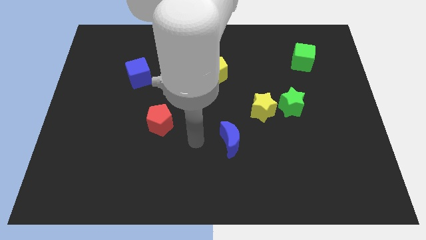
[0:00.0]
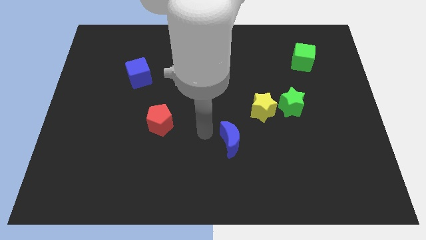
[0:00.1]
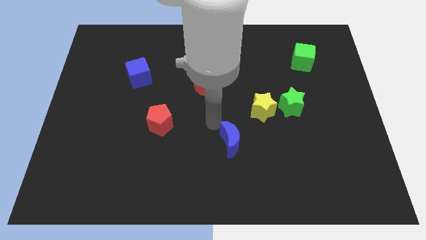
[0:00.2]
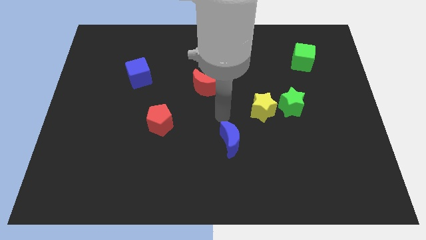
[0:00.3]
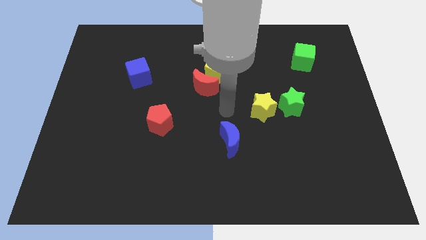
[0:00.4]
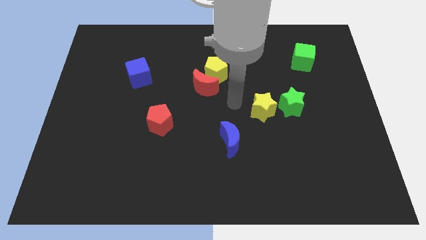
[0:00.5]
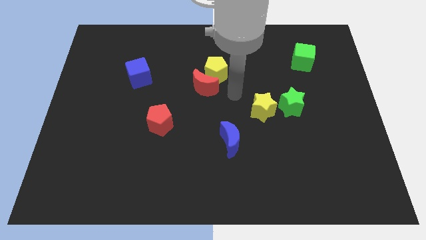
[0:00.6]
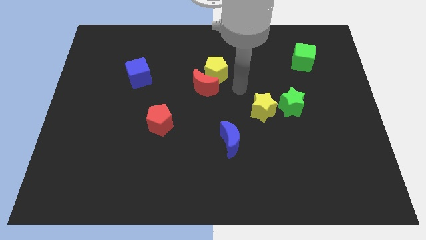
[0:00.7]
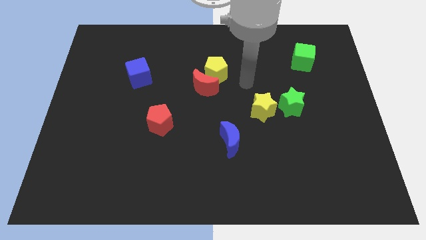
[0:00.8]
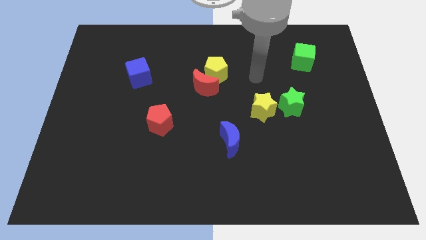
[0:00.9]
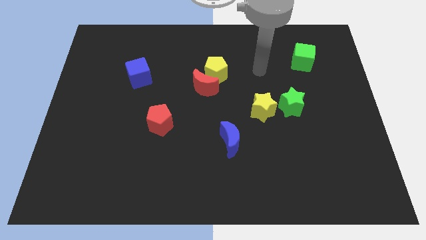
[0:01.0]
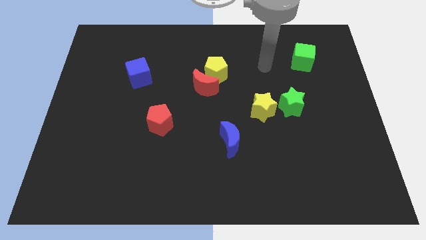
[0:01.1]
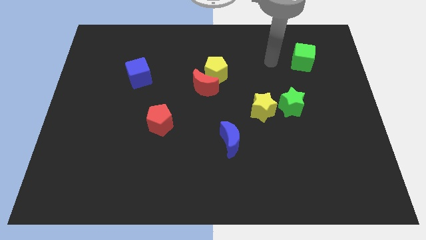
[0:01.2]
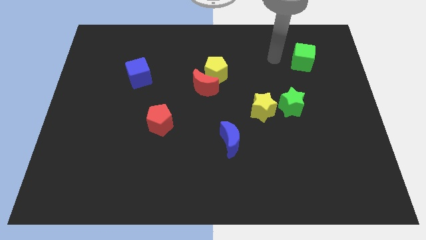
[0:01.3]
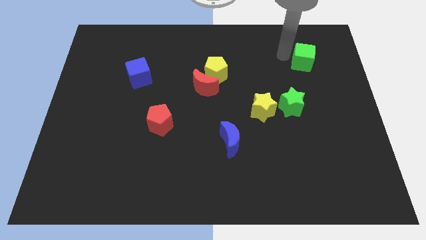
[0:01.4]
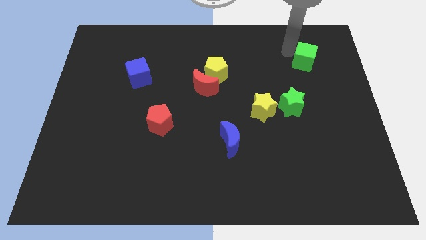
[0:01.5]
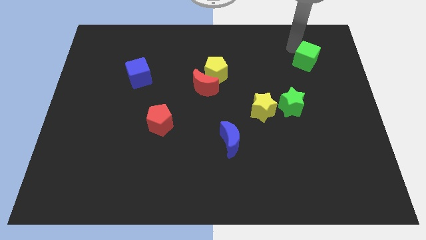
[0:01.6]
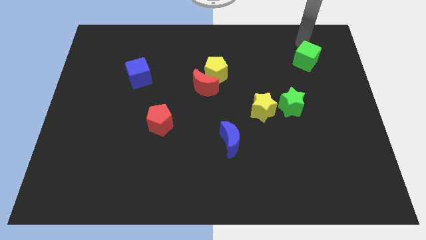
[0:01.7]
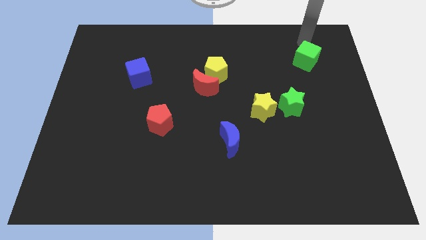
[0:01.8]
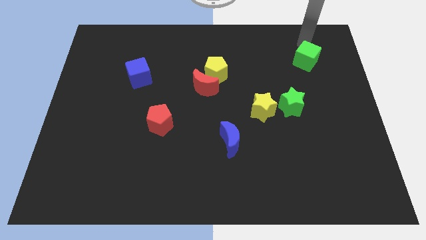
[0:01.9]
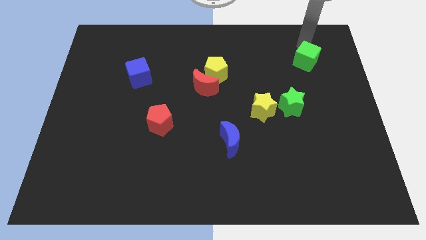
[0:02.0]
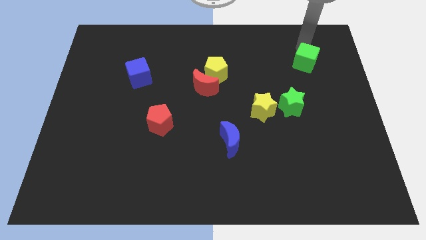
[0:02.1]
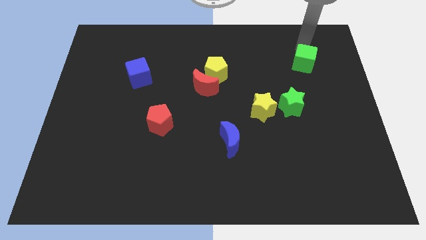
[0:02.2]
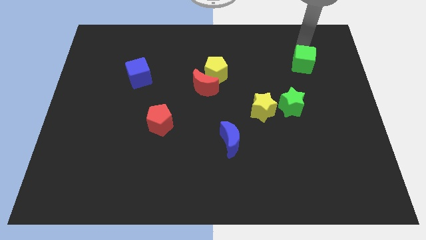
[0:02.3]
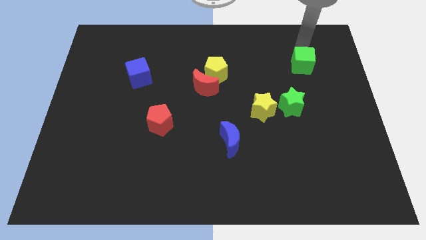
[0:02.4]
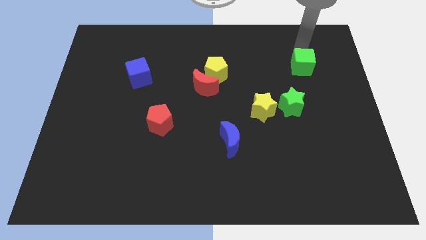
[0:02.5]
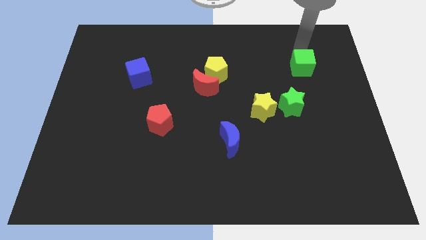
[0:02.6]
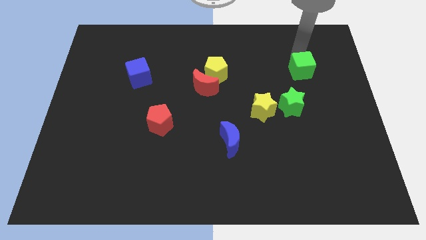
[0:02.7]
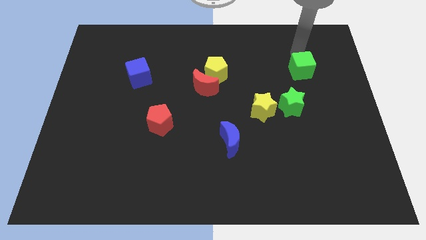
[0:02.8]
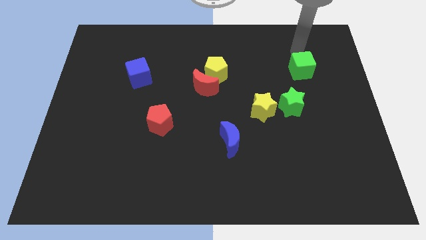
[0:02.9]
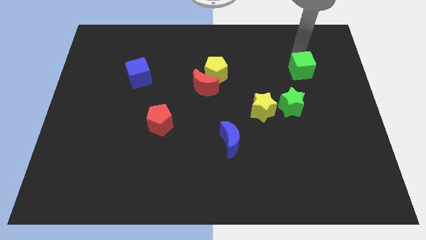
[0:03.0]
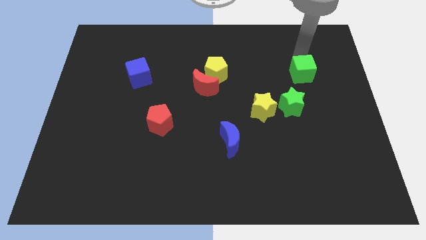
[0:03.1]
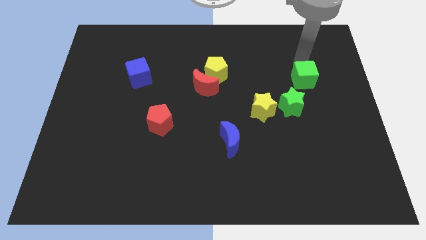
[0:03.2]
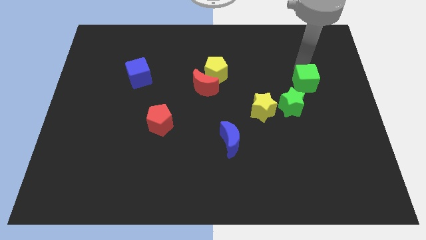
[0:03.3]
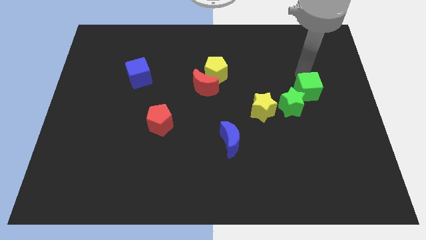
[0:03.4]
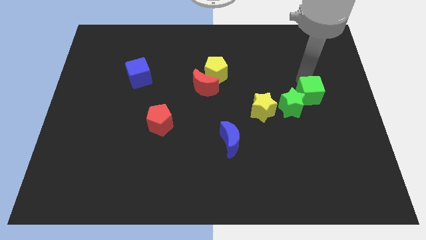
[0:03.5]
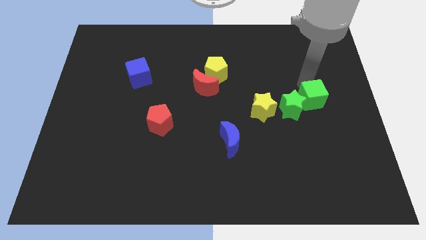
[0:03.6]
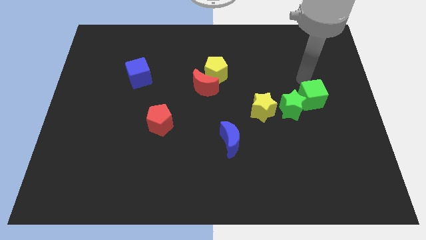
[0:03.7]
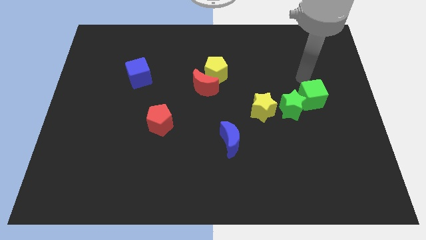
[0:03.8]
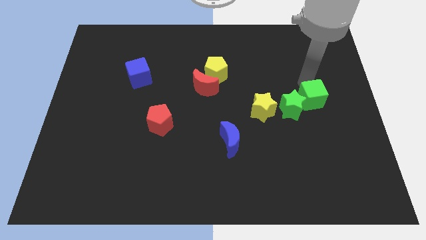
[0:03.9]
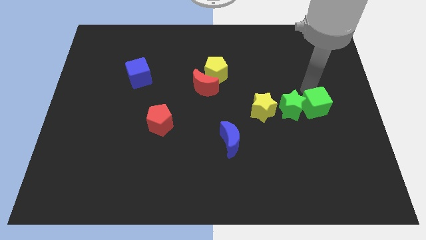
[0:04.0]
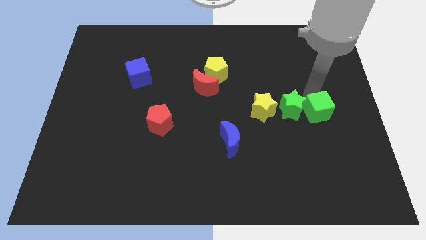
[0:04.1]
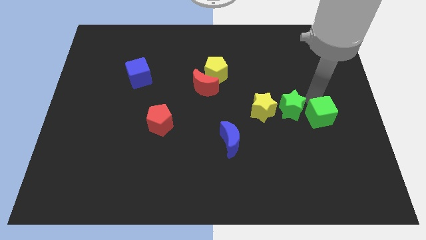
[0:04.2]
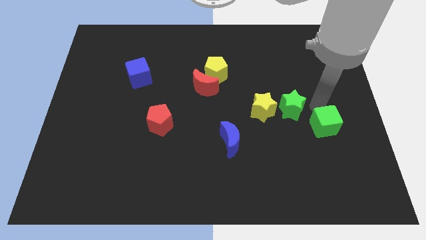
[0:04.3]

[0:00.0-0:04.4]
slide the green cube down

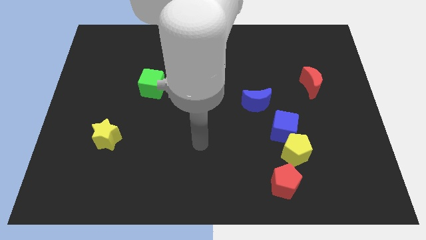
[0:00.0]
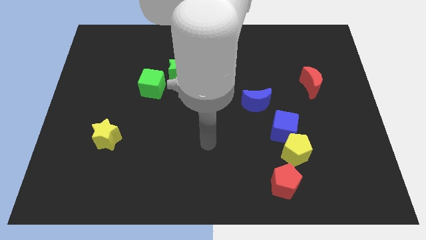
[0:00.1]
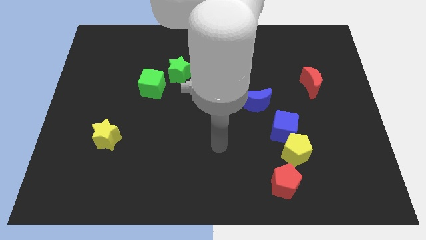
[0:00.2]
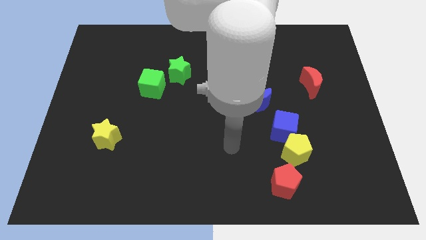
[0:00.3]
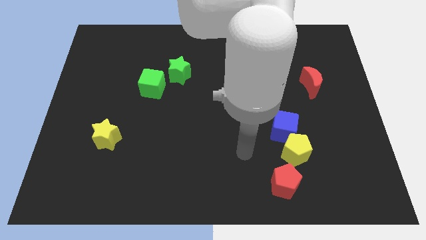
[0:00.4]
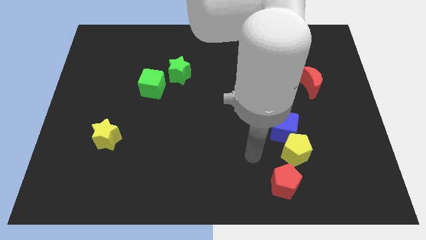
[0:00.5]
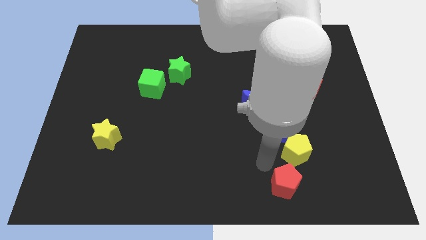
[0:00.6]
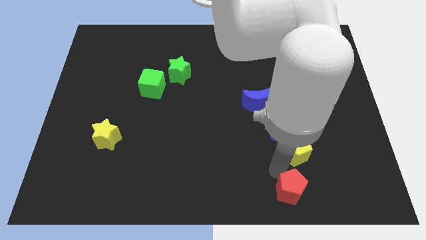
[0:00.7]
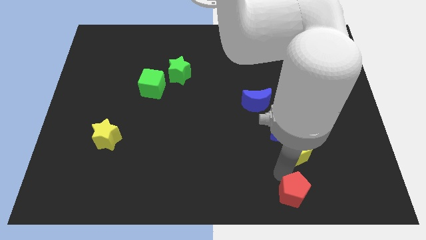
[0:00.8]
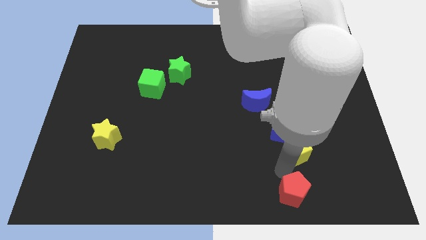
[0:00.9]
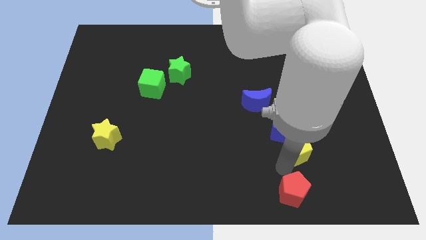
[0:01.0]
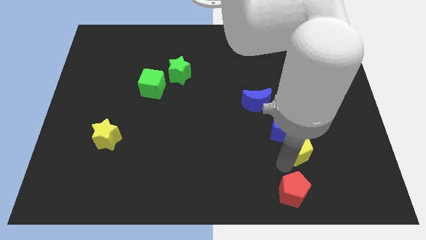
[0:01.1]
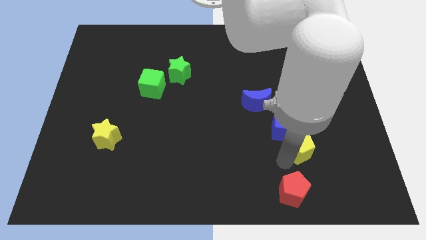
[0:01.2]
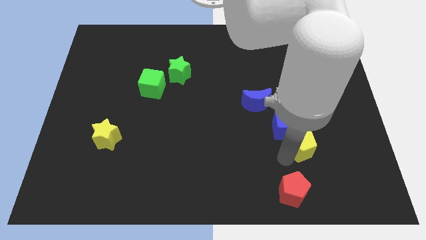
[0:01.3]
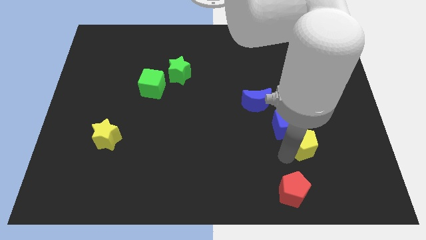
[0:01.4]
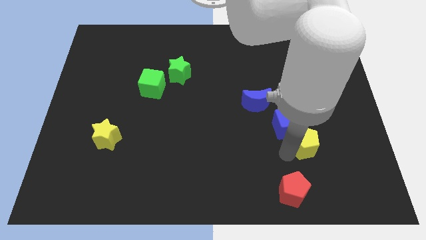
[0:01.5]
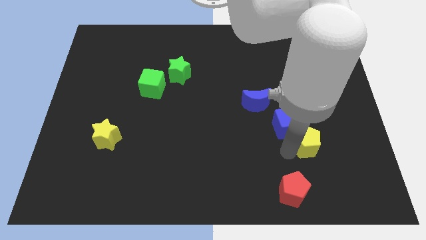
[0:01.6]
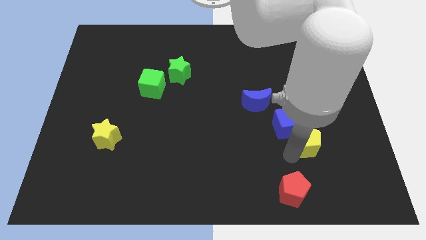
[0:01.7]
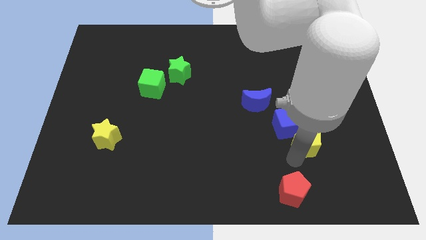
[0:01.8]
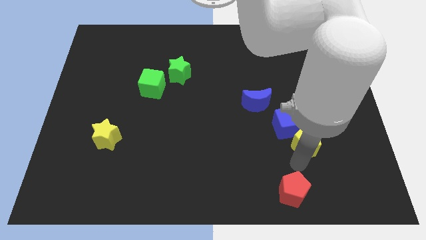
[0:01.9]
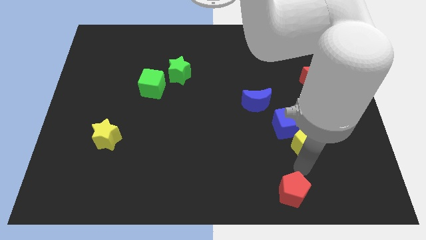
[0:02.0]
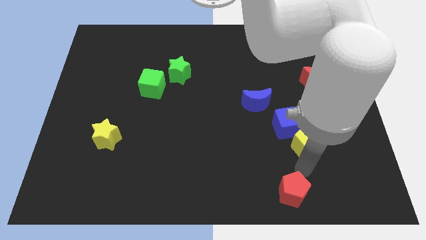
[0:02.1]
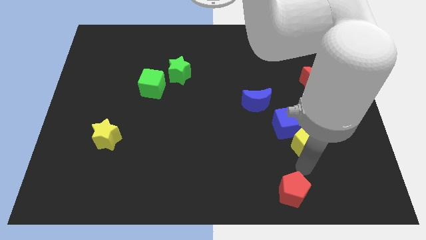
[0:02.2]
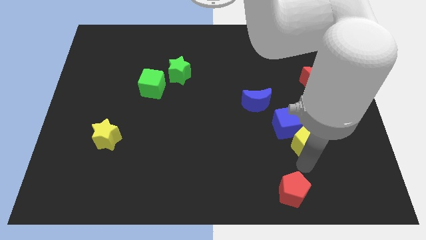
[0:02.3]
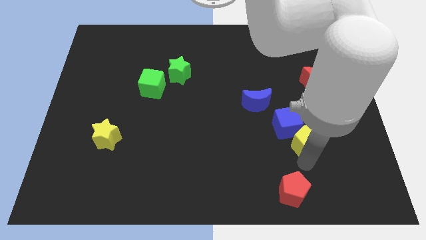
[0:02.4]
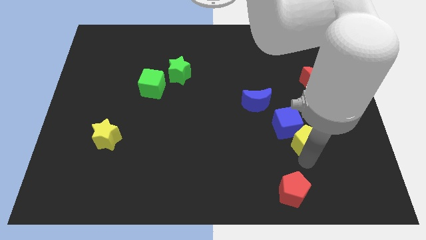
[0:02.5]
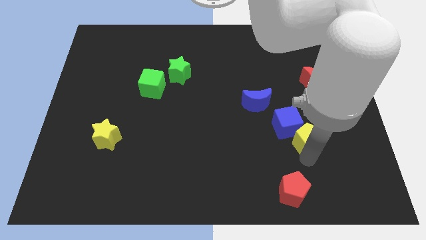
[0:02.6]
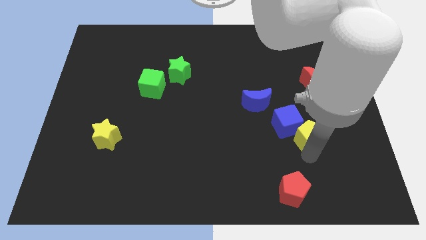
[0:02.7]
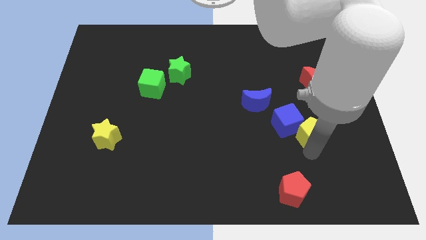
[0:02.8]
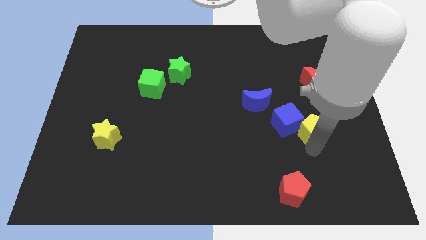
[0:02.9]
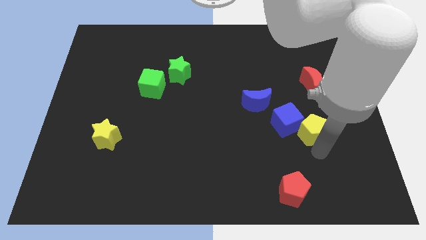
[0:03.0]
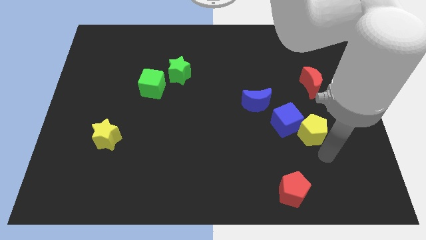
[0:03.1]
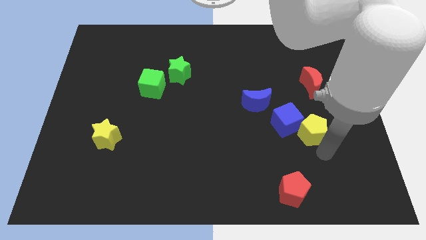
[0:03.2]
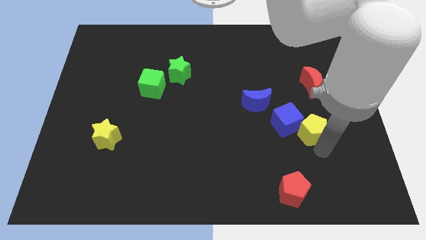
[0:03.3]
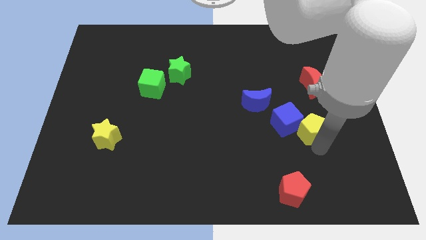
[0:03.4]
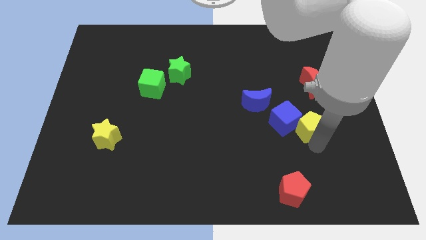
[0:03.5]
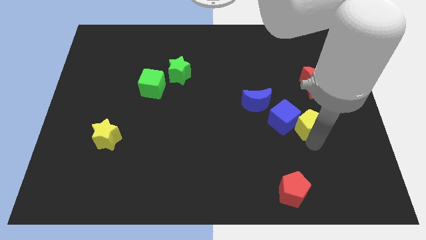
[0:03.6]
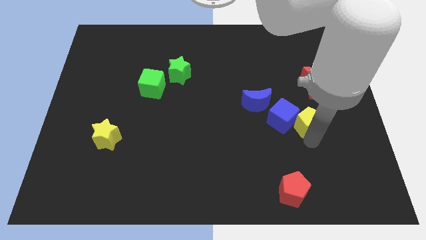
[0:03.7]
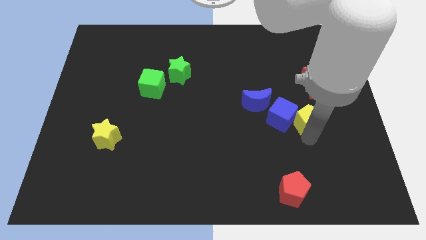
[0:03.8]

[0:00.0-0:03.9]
move the yellow pentagon up a bit

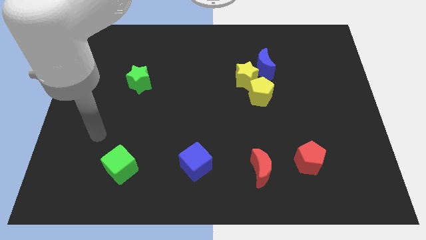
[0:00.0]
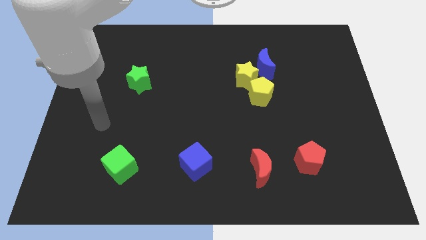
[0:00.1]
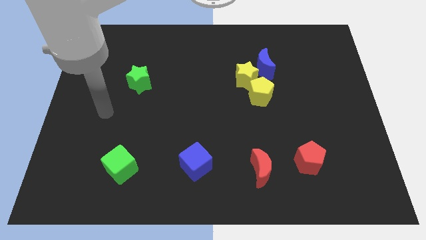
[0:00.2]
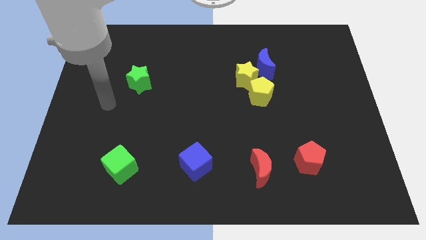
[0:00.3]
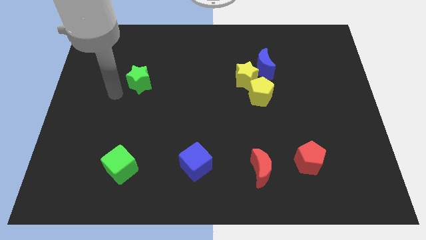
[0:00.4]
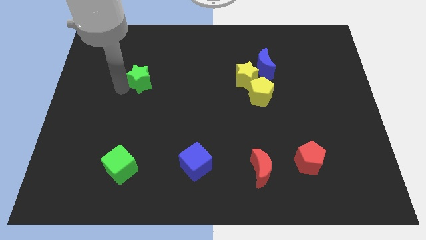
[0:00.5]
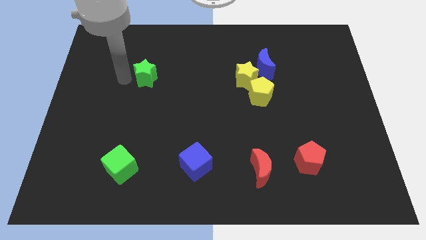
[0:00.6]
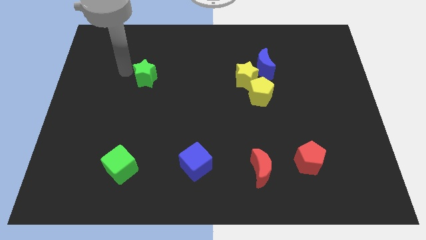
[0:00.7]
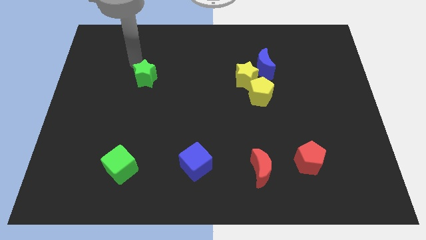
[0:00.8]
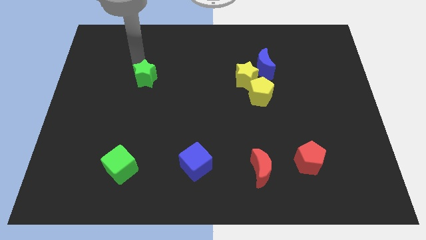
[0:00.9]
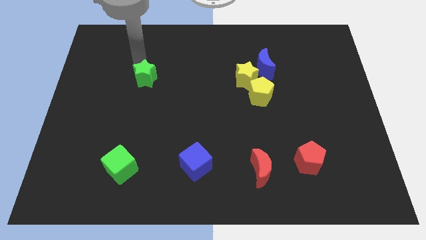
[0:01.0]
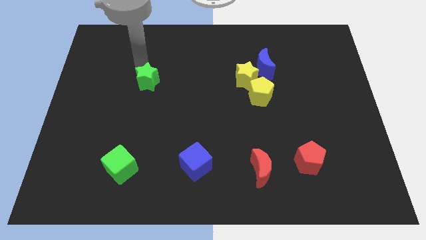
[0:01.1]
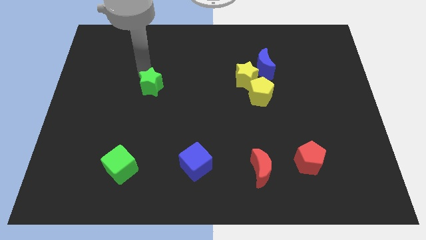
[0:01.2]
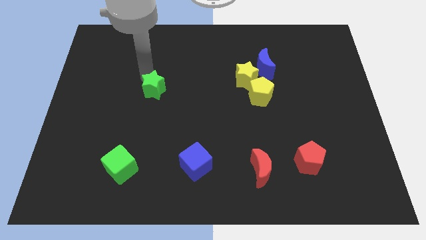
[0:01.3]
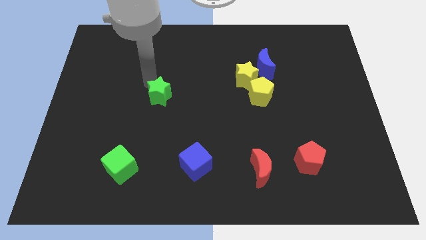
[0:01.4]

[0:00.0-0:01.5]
push the green star down and to the right somewhat
